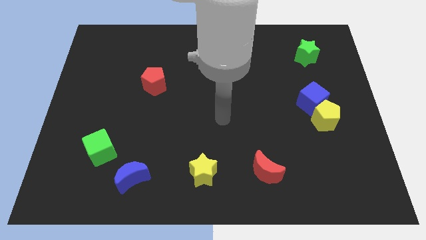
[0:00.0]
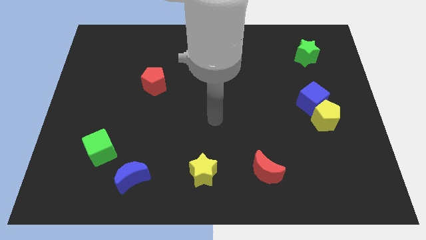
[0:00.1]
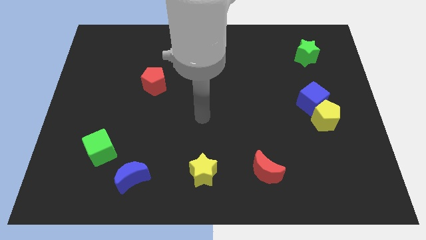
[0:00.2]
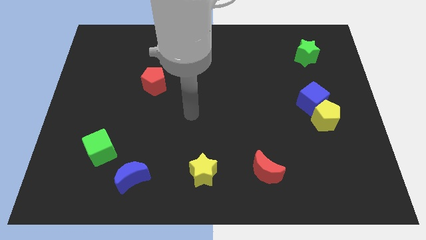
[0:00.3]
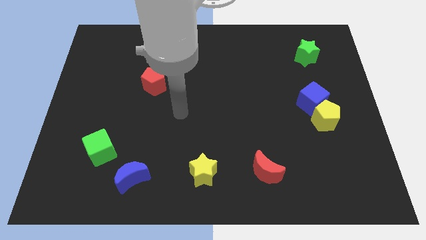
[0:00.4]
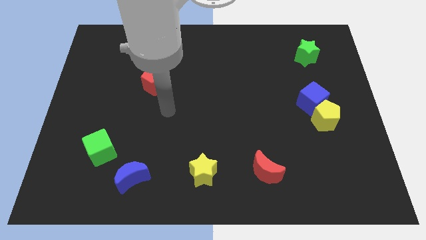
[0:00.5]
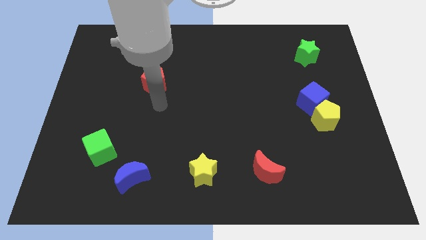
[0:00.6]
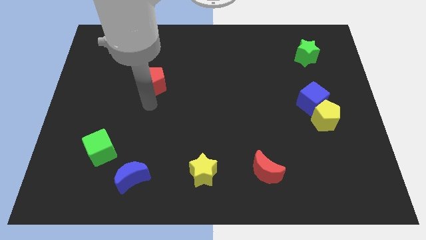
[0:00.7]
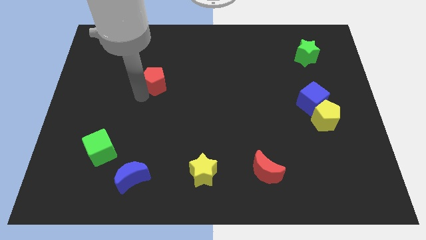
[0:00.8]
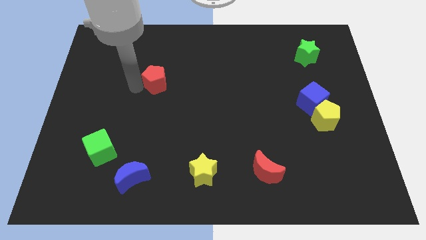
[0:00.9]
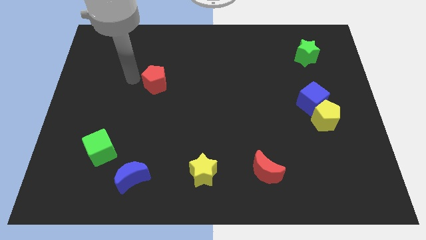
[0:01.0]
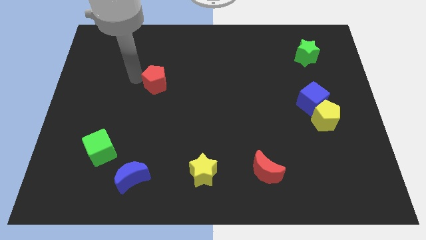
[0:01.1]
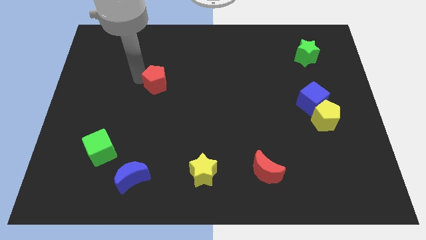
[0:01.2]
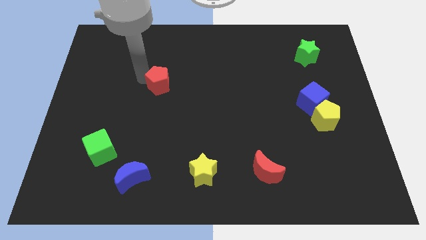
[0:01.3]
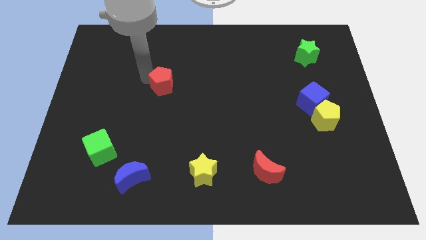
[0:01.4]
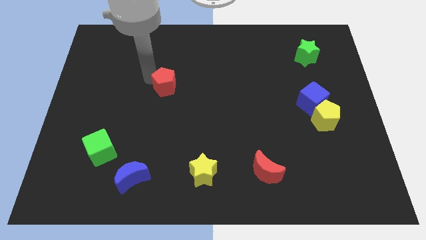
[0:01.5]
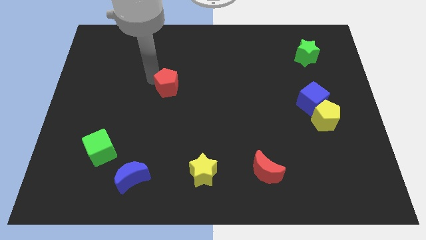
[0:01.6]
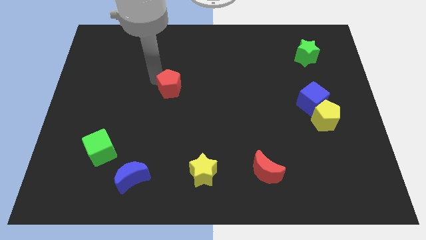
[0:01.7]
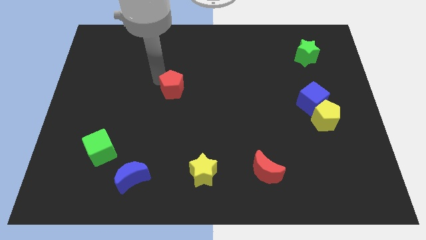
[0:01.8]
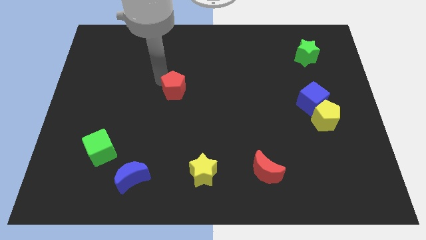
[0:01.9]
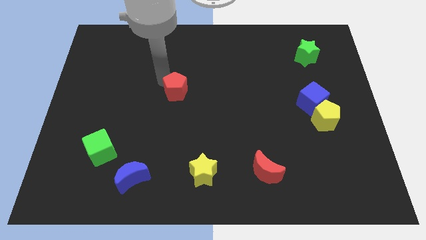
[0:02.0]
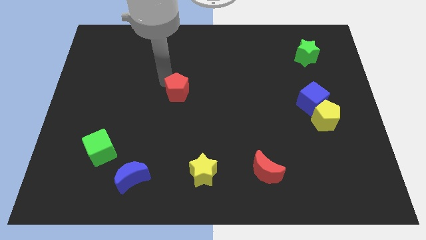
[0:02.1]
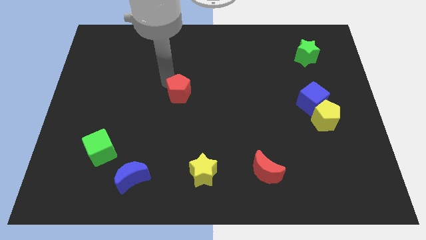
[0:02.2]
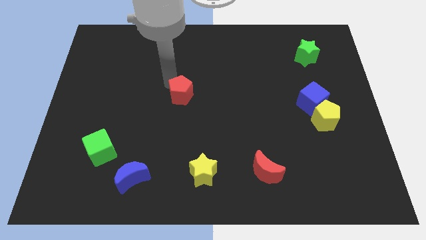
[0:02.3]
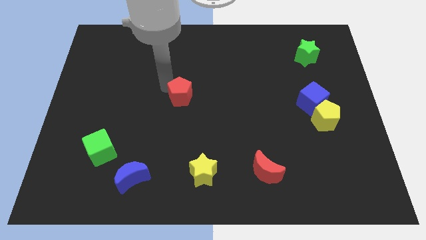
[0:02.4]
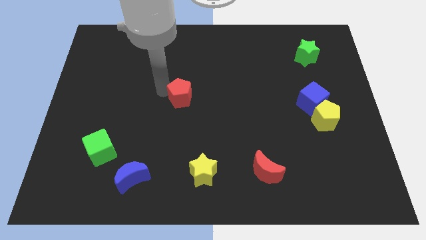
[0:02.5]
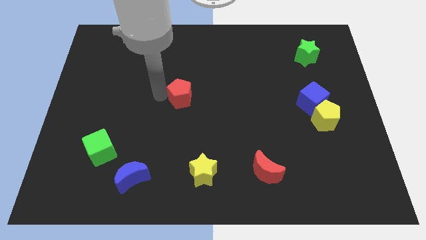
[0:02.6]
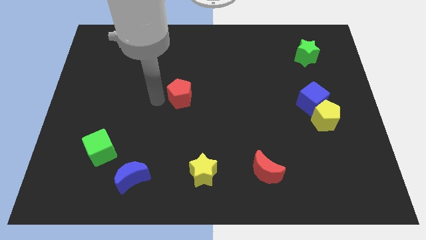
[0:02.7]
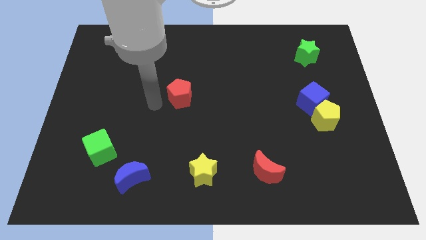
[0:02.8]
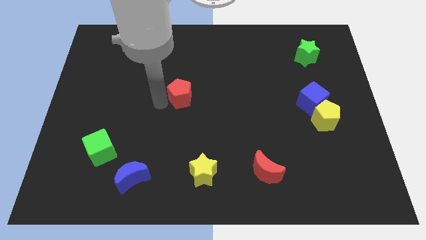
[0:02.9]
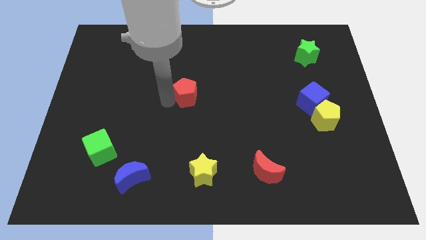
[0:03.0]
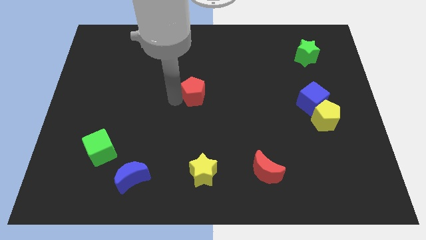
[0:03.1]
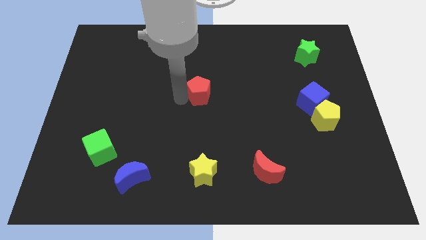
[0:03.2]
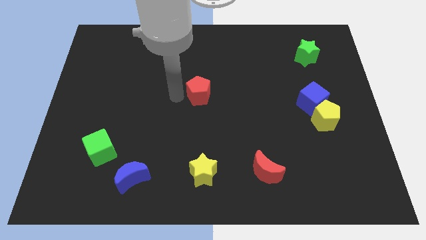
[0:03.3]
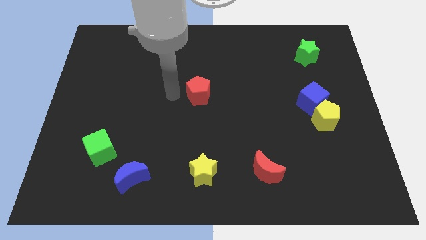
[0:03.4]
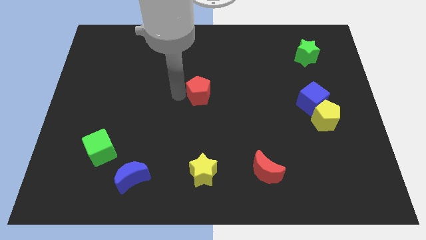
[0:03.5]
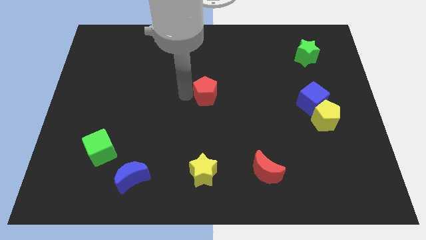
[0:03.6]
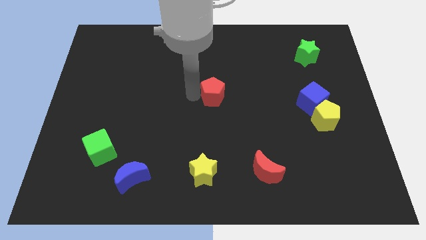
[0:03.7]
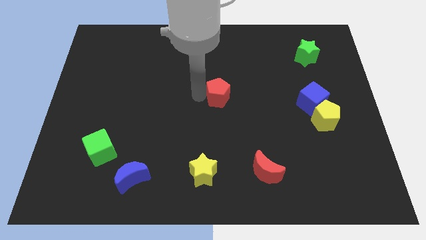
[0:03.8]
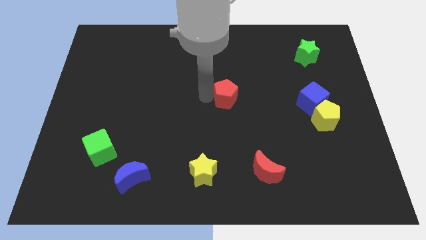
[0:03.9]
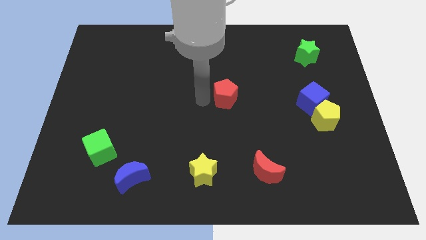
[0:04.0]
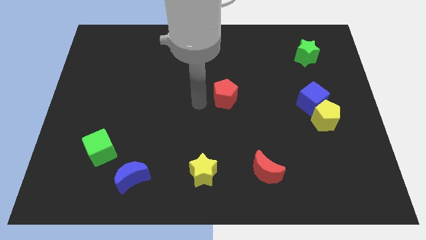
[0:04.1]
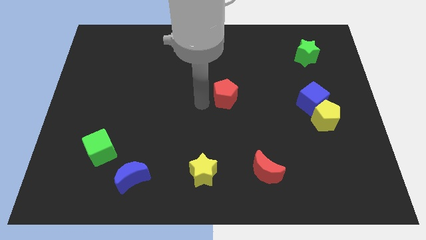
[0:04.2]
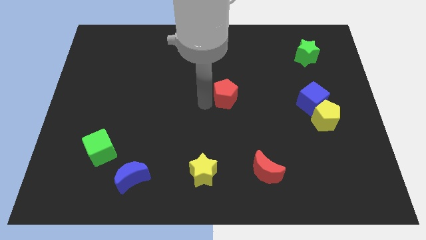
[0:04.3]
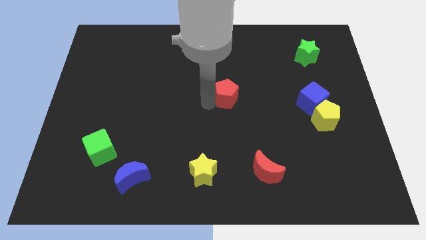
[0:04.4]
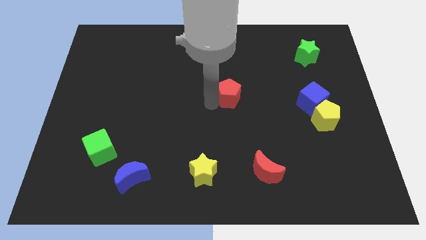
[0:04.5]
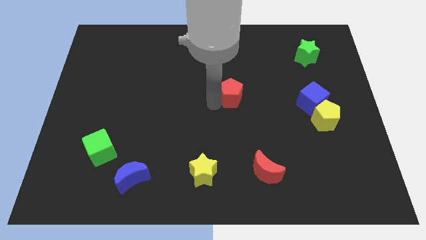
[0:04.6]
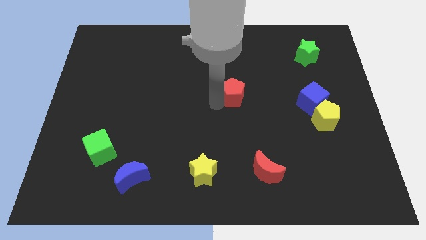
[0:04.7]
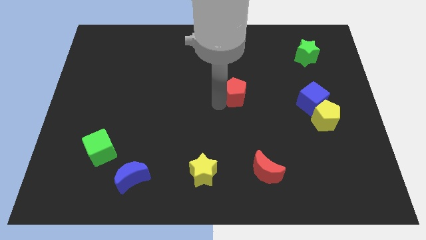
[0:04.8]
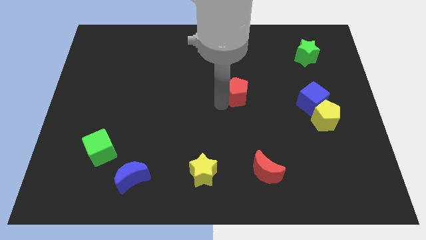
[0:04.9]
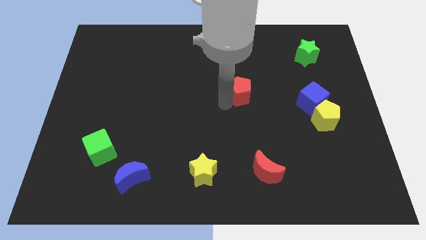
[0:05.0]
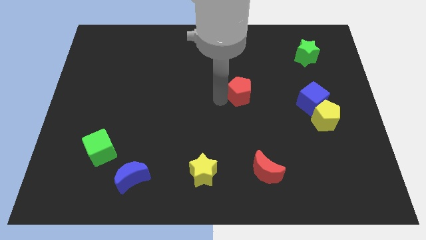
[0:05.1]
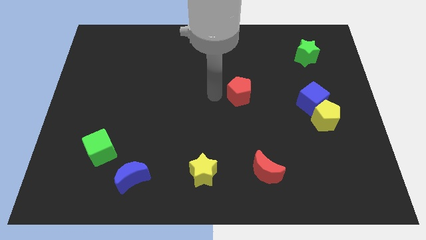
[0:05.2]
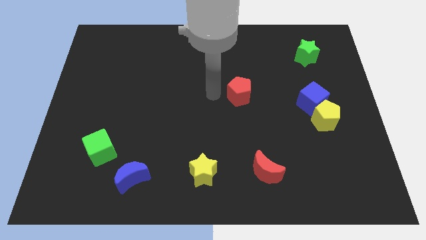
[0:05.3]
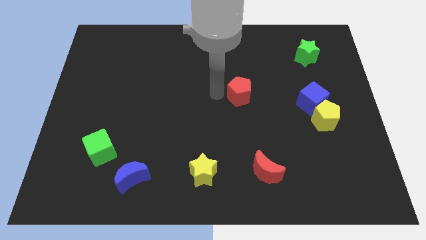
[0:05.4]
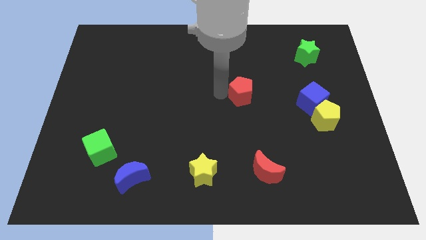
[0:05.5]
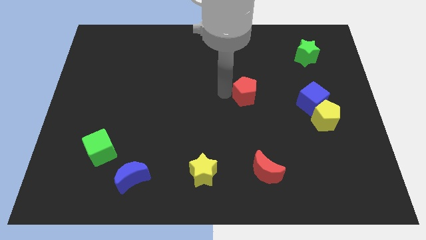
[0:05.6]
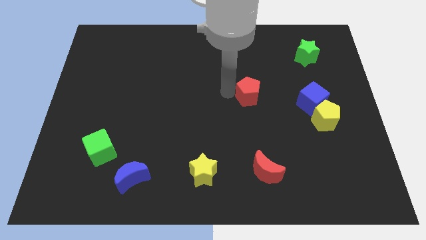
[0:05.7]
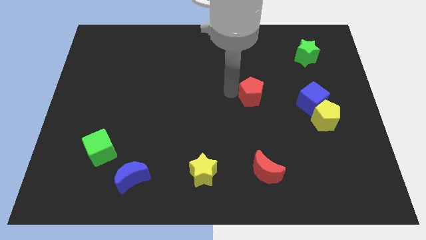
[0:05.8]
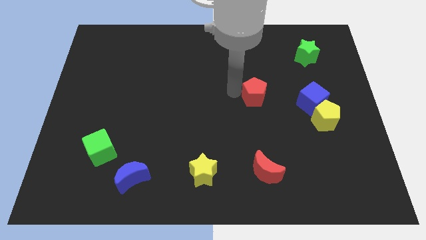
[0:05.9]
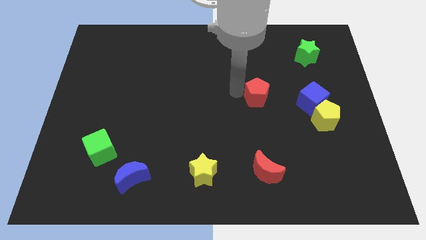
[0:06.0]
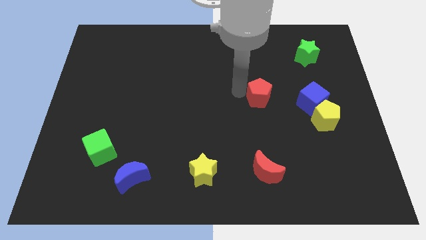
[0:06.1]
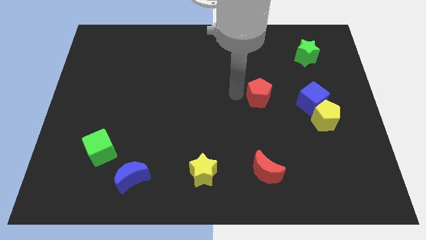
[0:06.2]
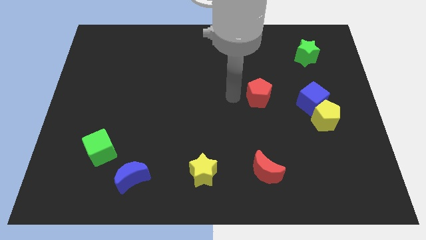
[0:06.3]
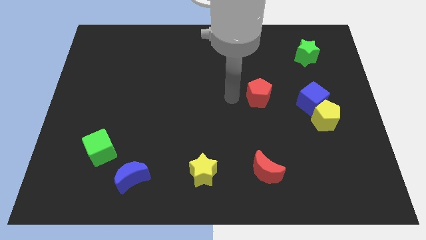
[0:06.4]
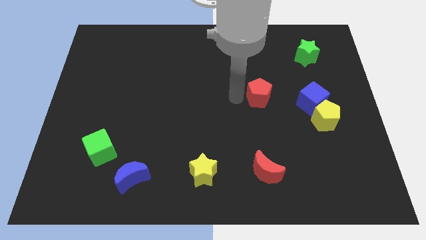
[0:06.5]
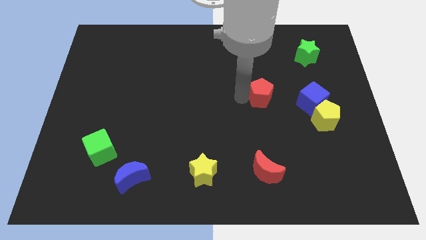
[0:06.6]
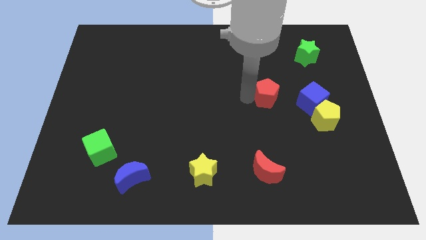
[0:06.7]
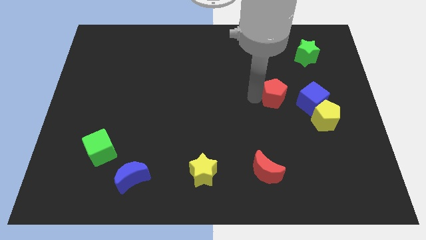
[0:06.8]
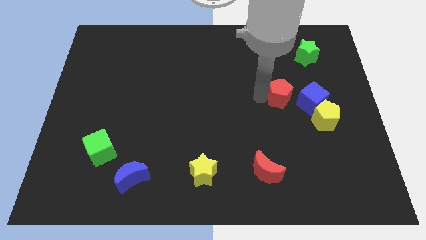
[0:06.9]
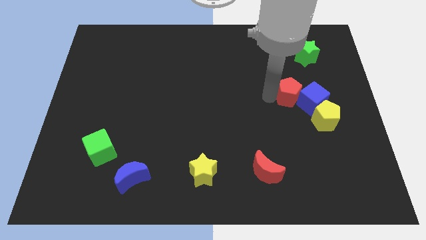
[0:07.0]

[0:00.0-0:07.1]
put the red pentagon to the blue cube
